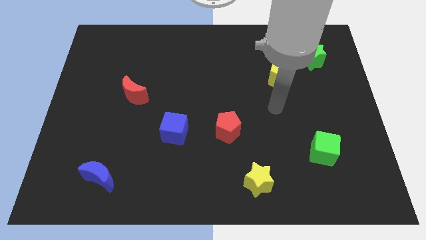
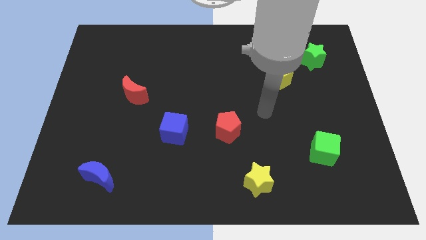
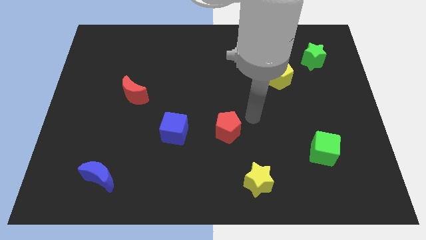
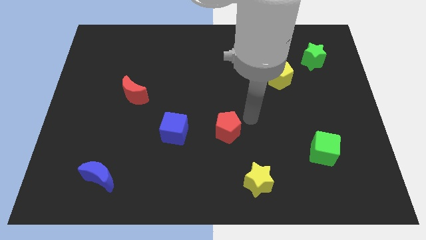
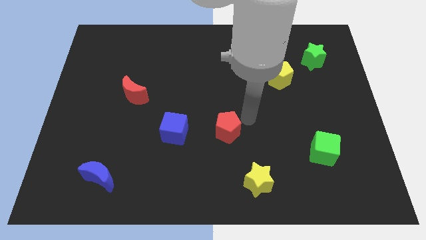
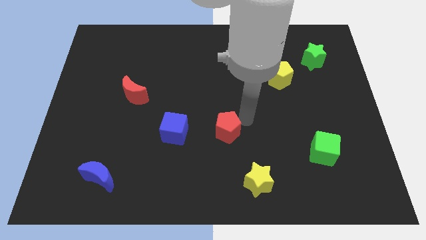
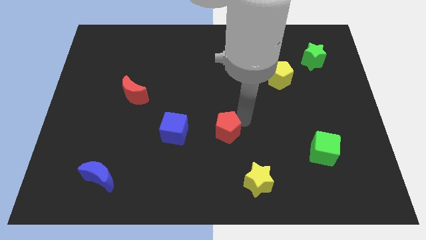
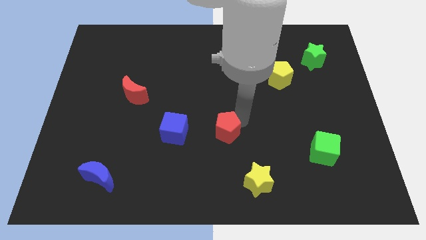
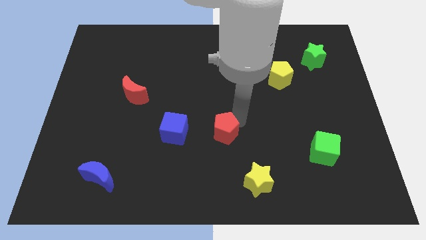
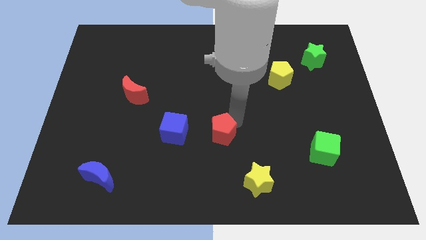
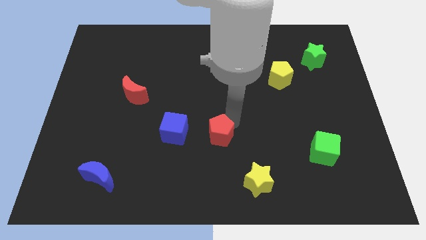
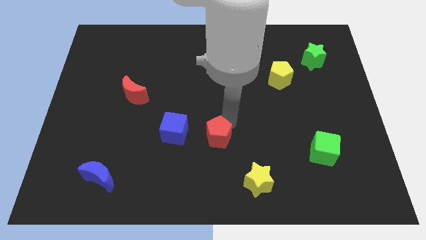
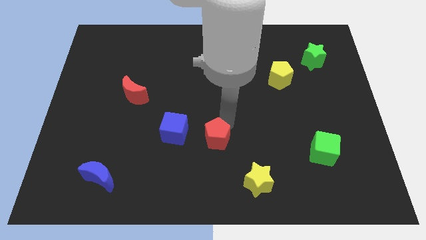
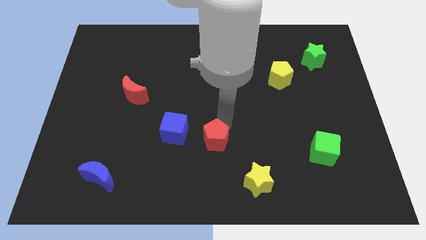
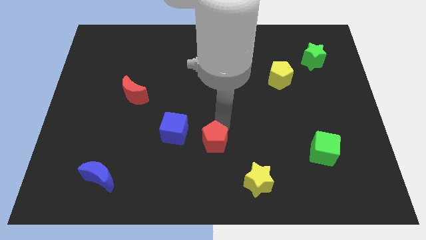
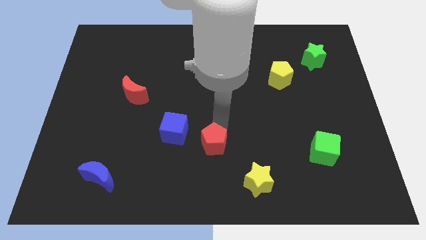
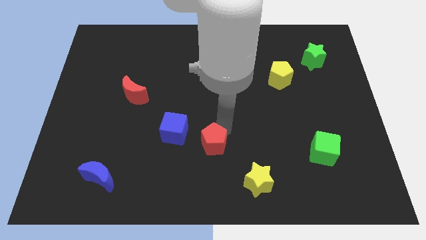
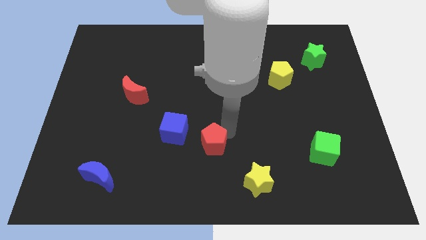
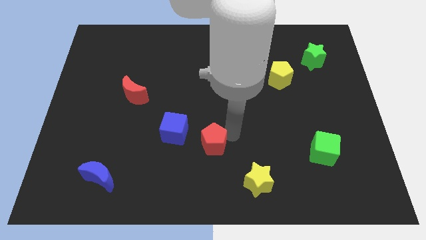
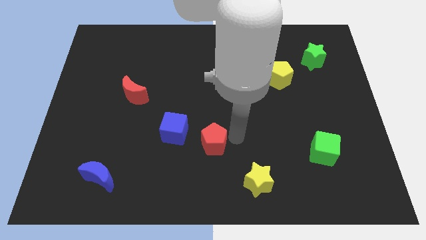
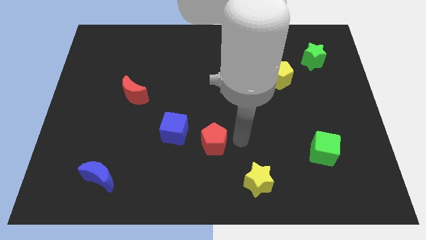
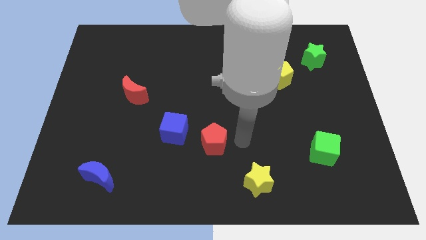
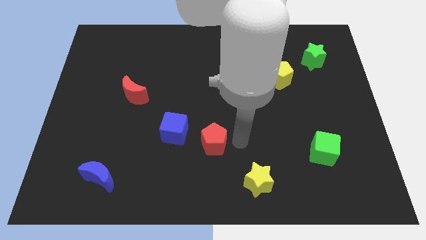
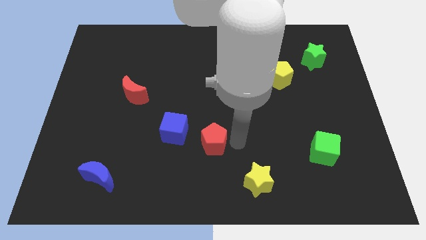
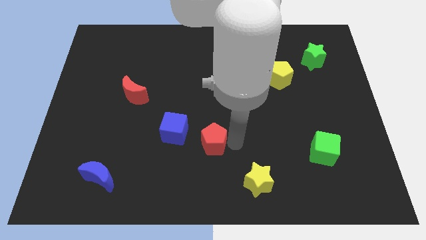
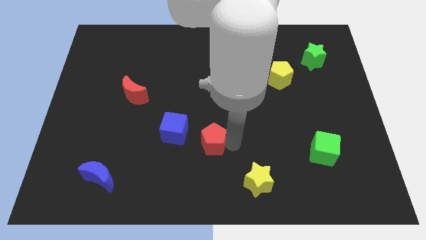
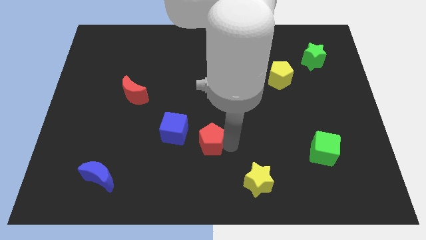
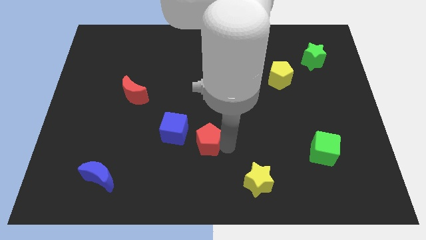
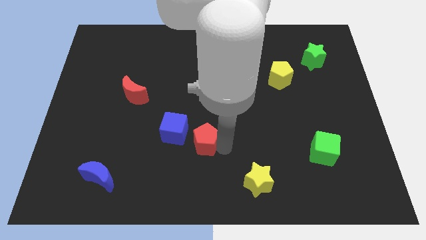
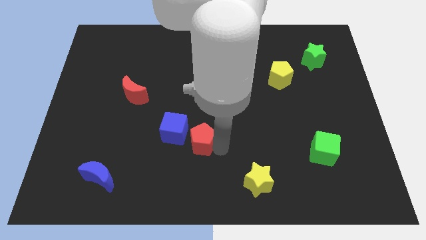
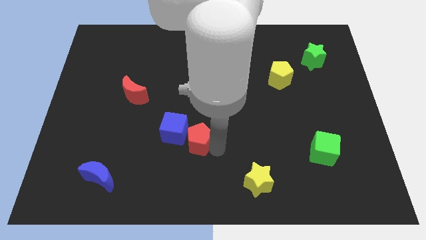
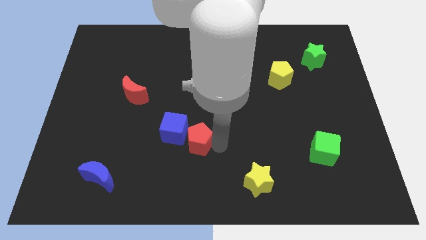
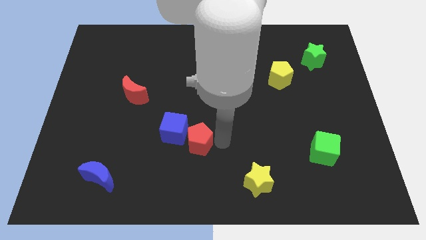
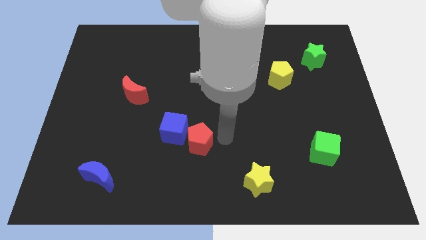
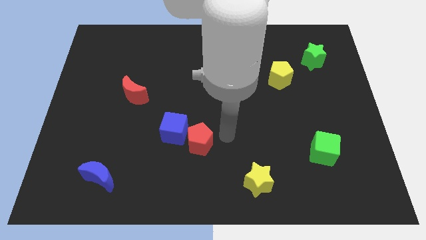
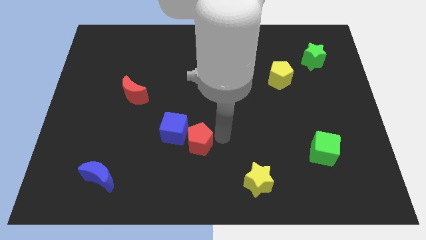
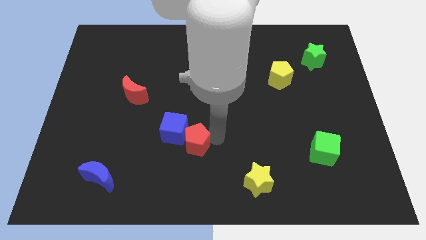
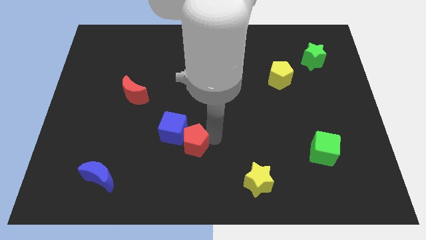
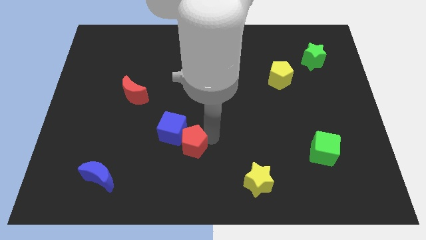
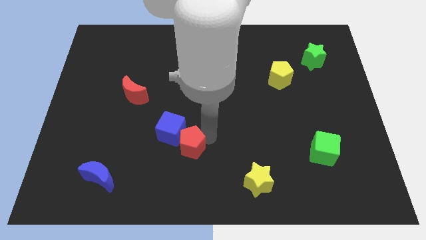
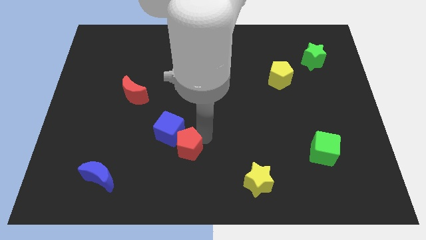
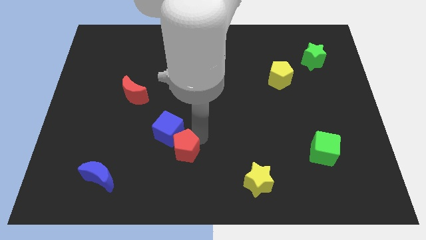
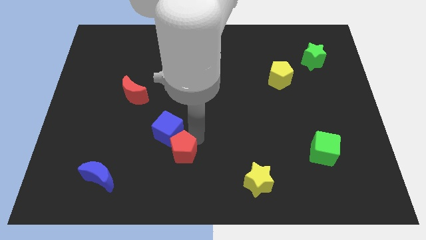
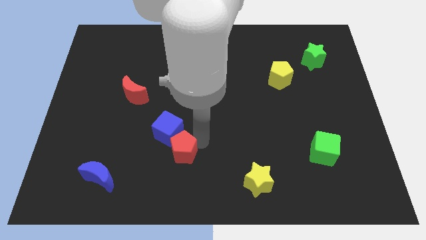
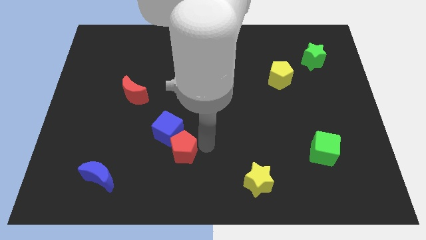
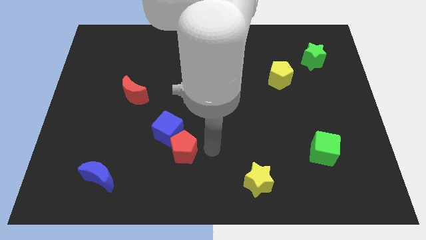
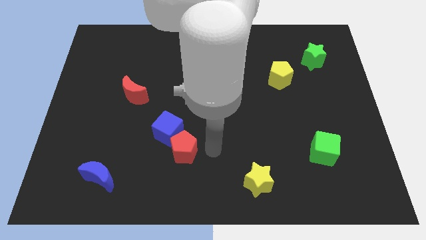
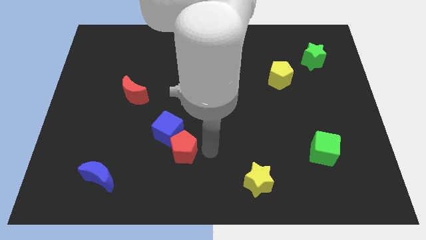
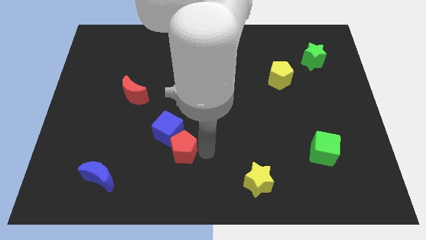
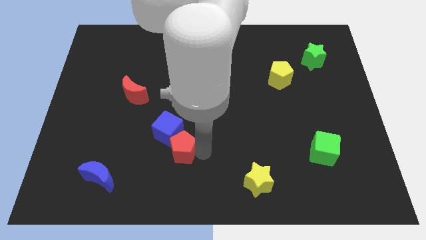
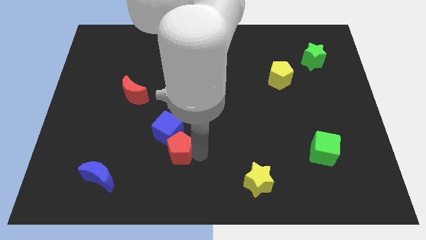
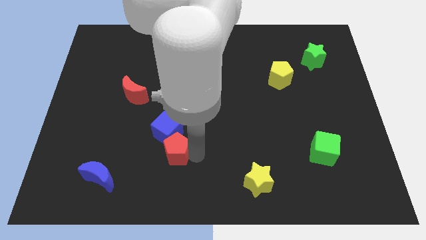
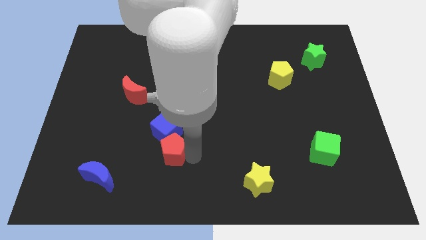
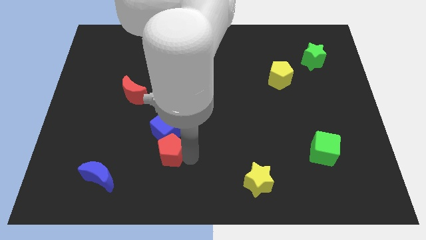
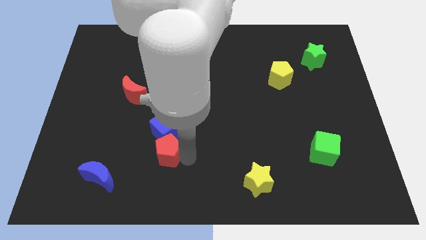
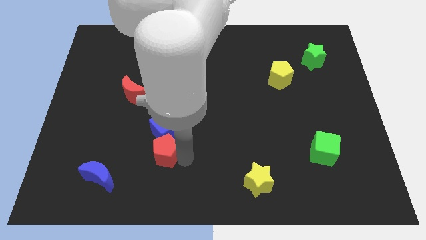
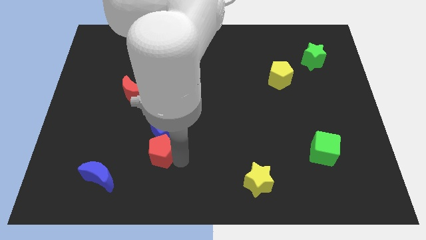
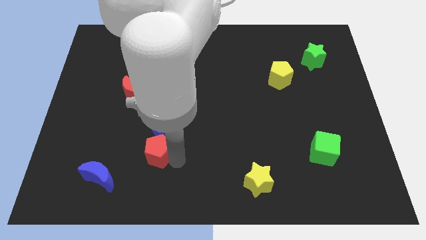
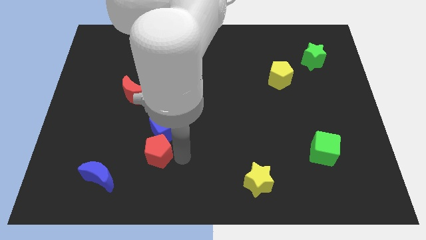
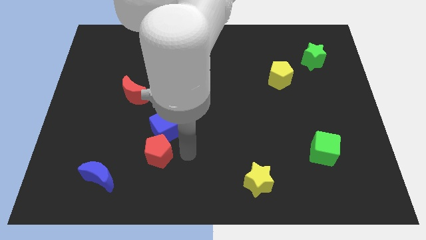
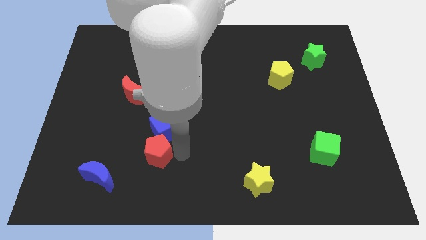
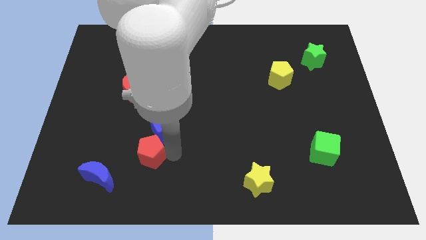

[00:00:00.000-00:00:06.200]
slide the red pentagon to the top right side of the blue moon

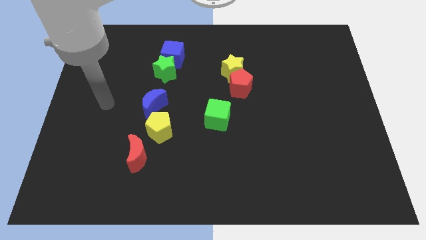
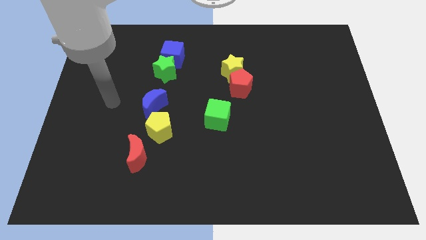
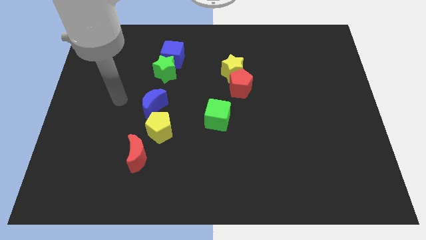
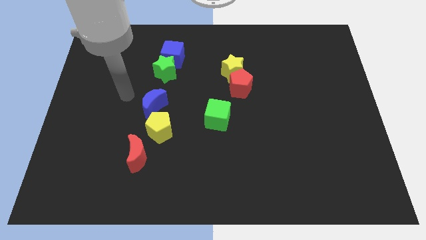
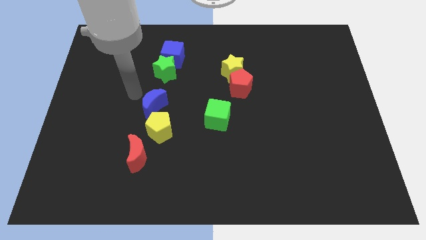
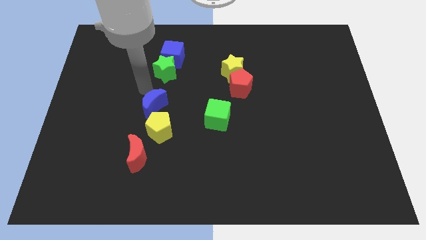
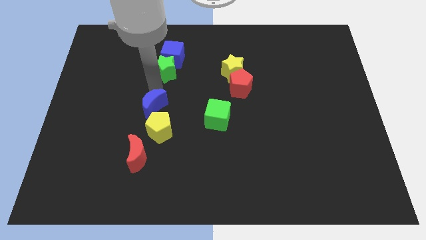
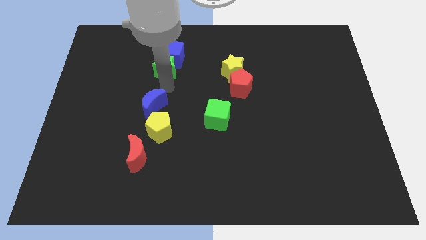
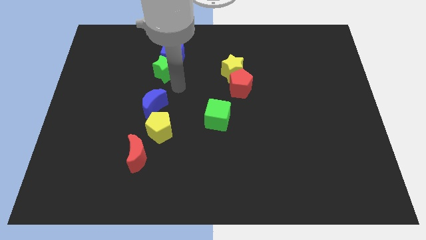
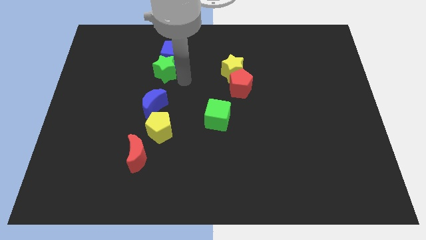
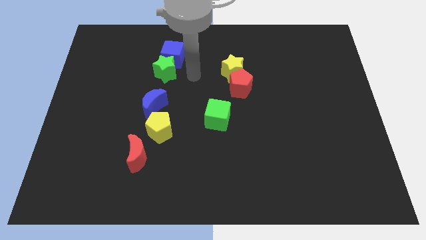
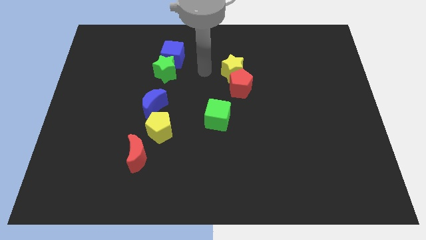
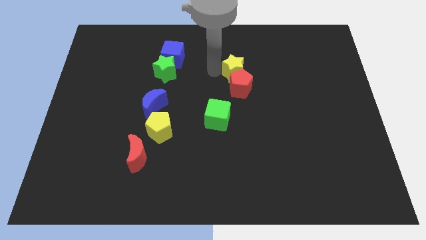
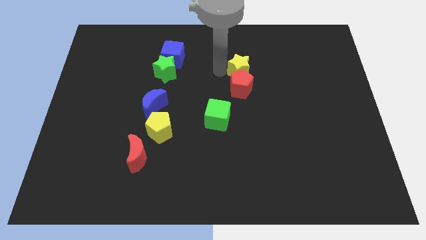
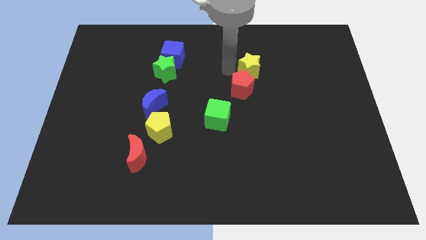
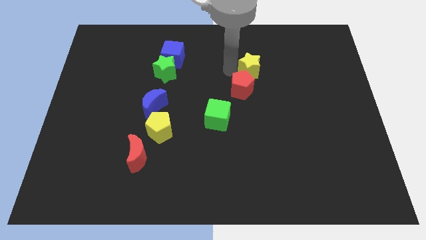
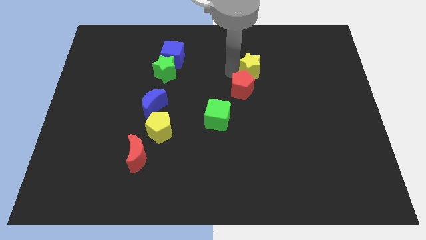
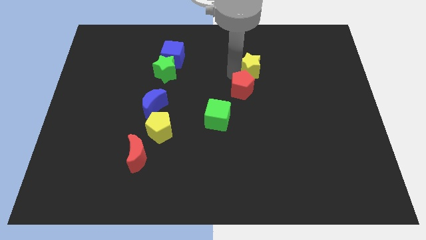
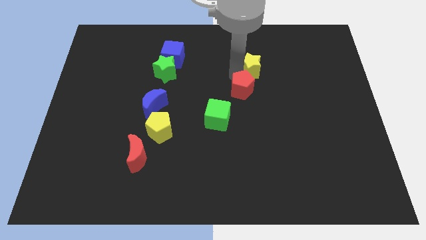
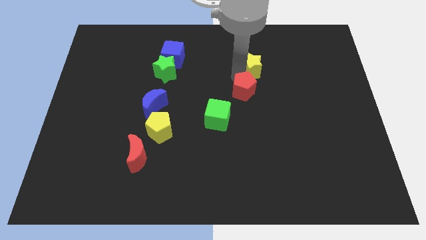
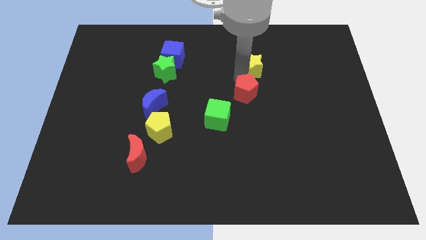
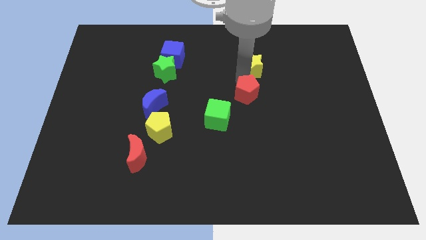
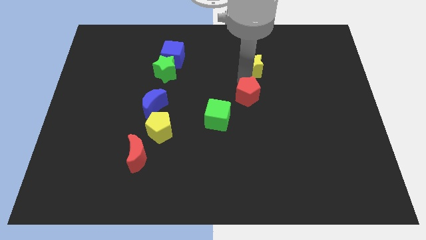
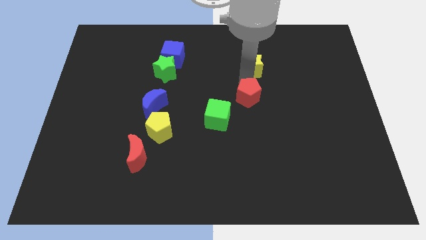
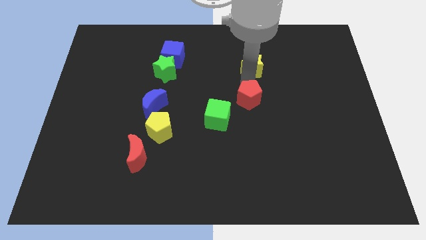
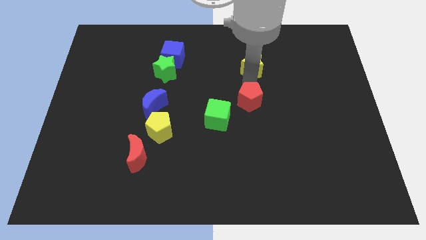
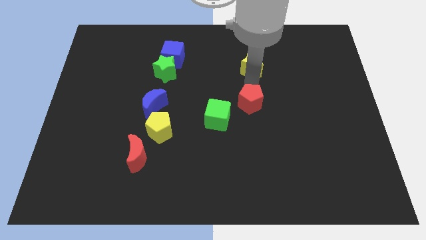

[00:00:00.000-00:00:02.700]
push the red pentagon to the right of the green cube
